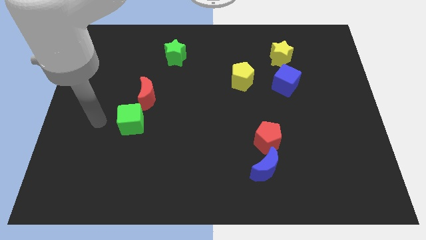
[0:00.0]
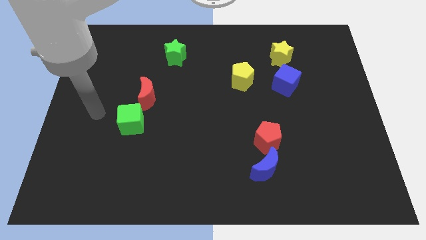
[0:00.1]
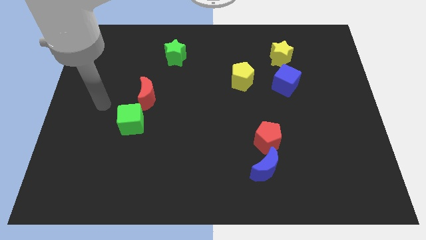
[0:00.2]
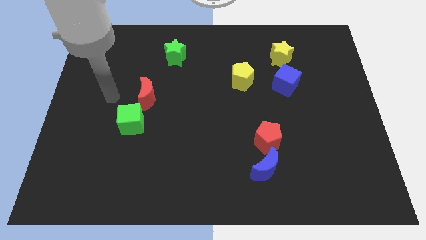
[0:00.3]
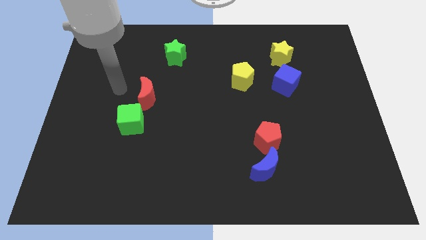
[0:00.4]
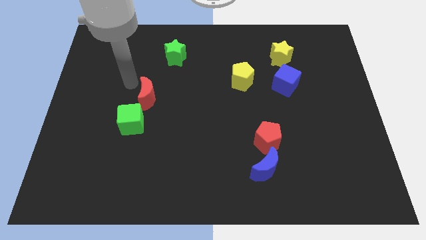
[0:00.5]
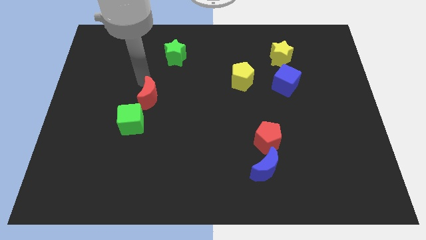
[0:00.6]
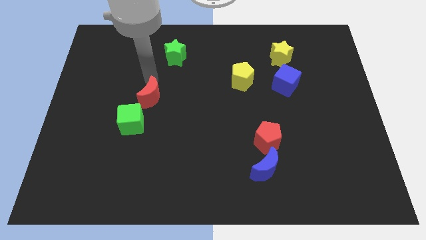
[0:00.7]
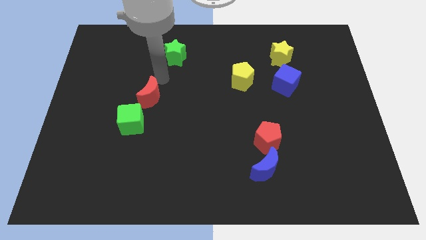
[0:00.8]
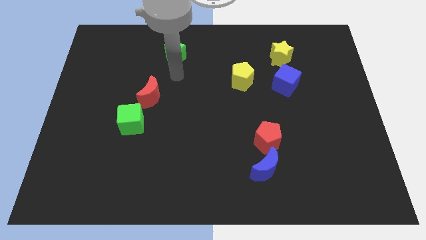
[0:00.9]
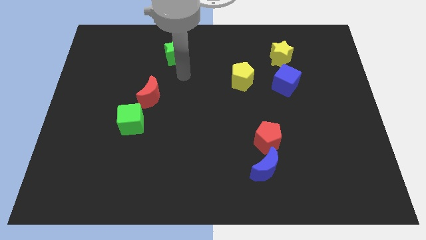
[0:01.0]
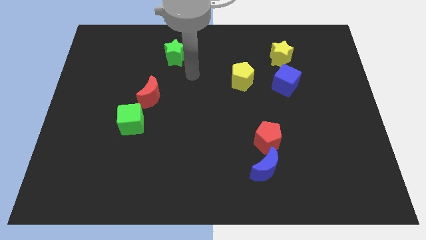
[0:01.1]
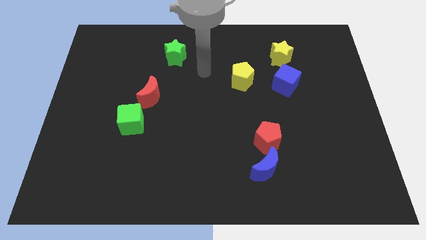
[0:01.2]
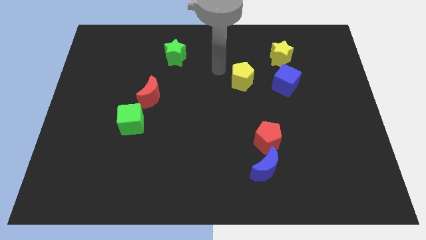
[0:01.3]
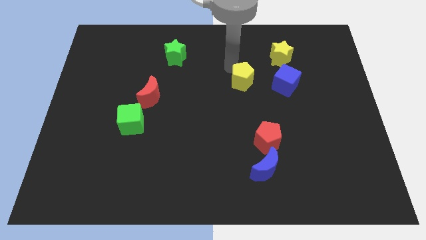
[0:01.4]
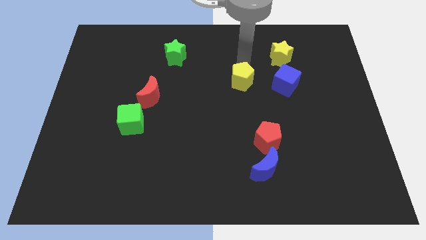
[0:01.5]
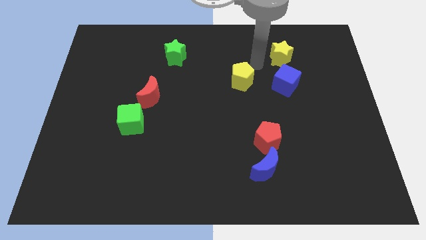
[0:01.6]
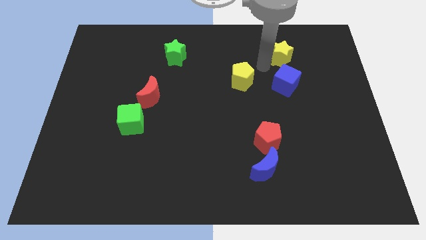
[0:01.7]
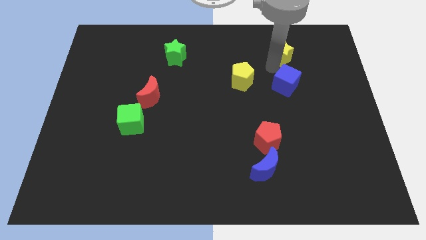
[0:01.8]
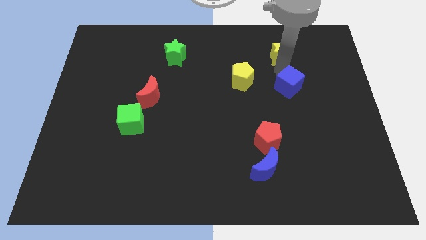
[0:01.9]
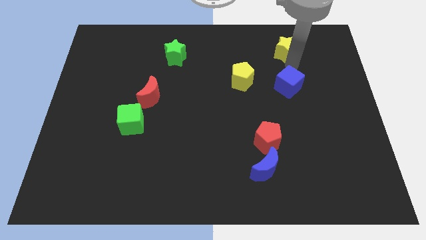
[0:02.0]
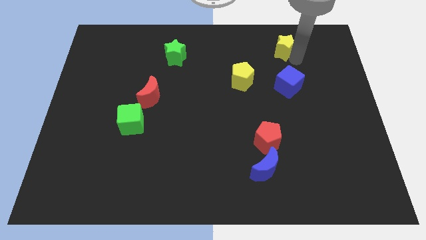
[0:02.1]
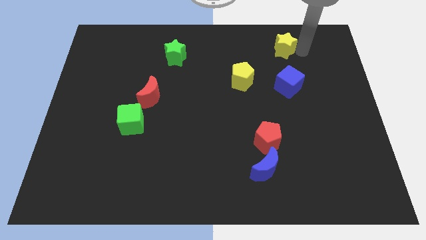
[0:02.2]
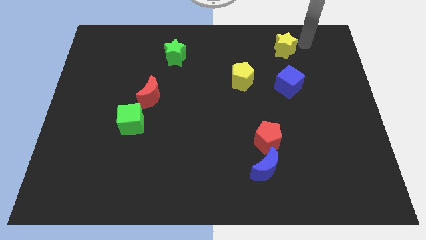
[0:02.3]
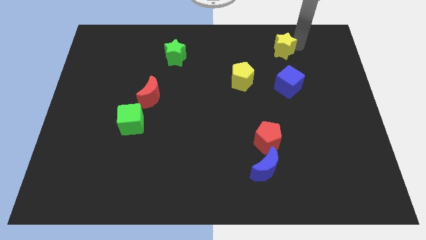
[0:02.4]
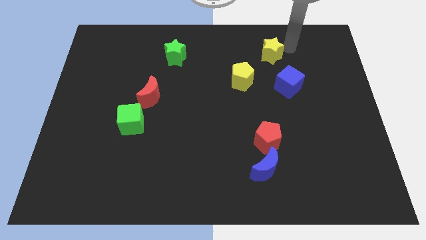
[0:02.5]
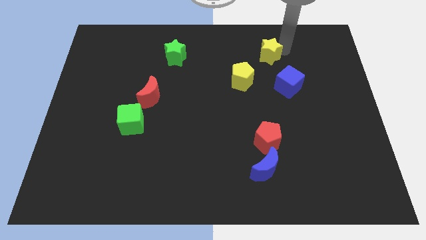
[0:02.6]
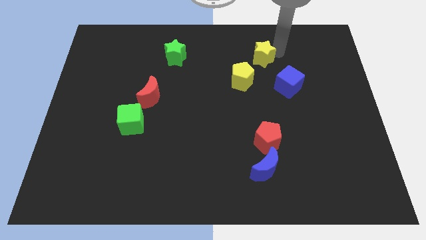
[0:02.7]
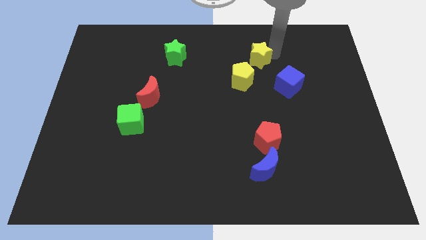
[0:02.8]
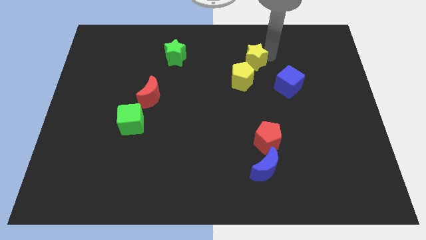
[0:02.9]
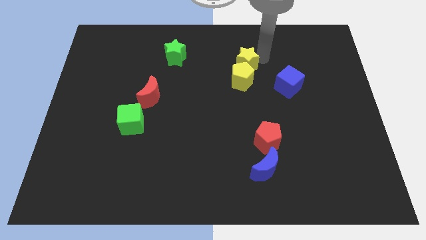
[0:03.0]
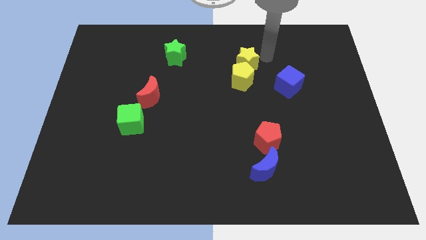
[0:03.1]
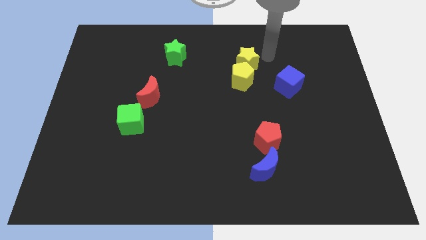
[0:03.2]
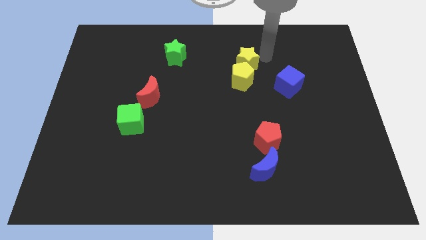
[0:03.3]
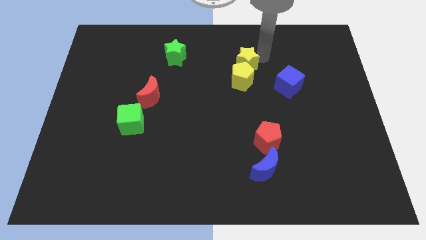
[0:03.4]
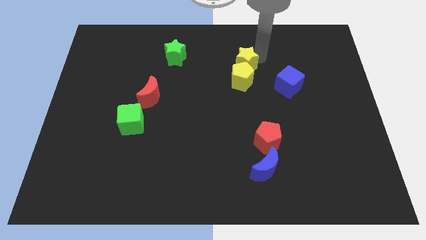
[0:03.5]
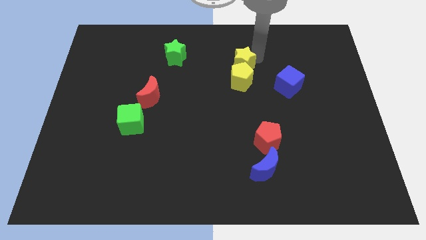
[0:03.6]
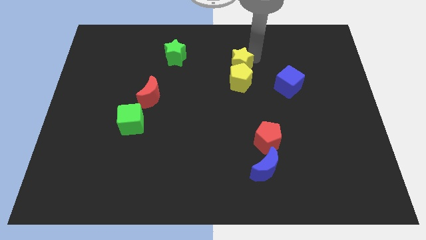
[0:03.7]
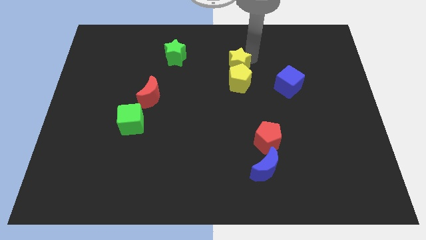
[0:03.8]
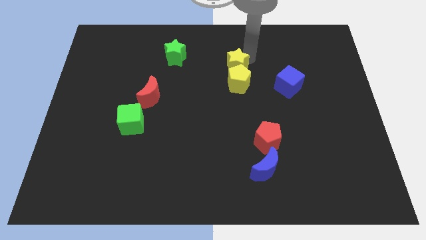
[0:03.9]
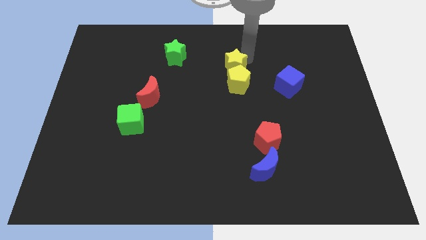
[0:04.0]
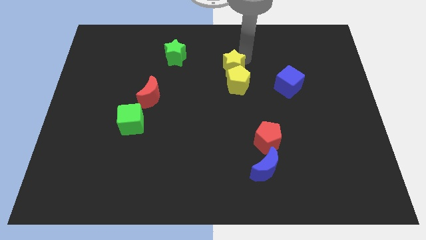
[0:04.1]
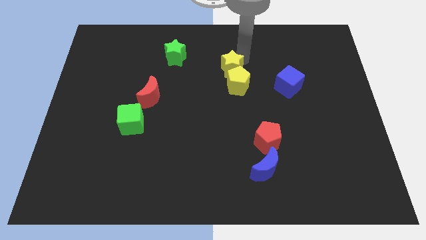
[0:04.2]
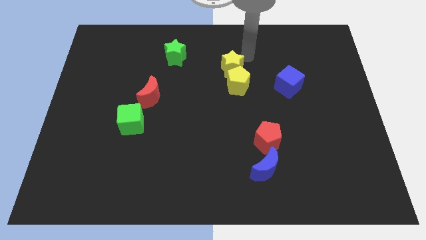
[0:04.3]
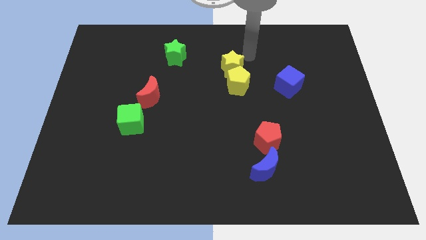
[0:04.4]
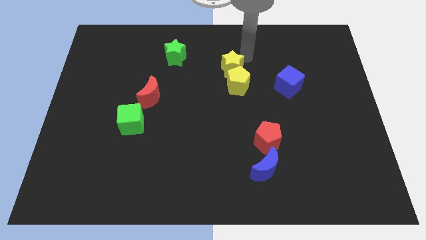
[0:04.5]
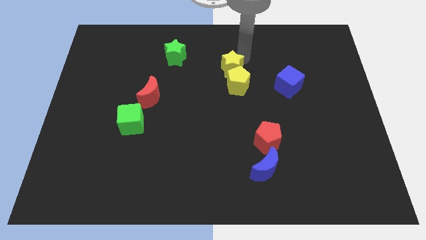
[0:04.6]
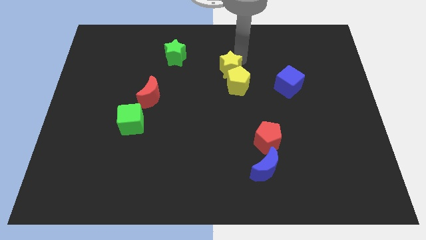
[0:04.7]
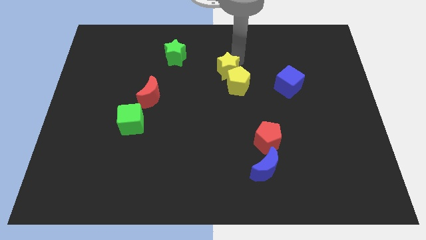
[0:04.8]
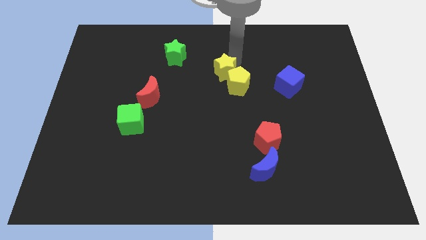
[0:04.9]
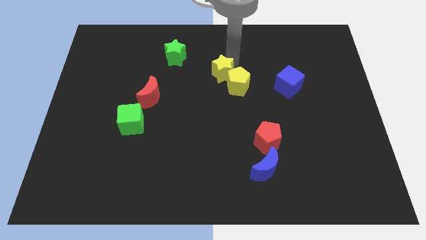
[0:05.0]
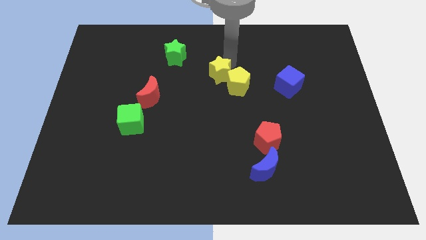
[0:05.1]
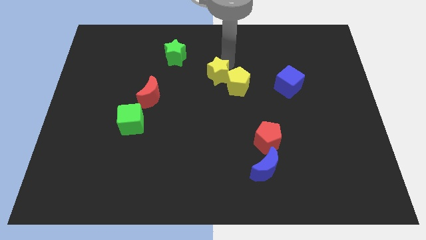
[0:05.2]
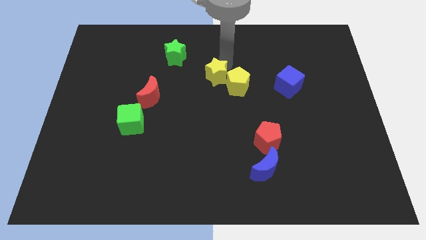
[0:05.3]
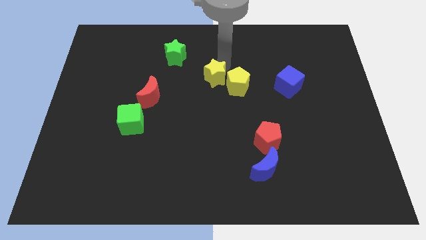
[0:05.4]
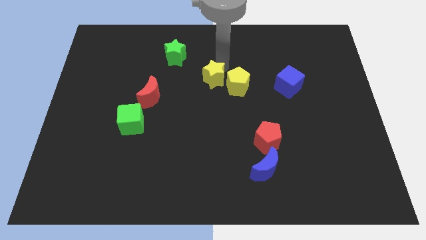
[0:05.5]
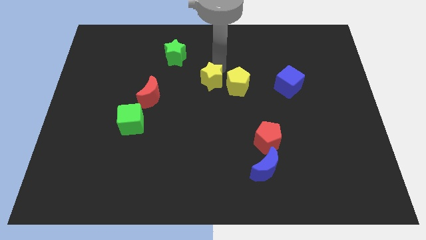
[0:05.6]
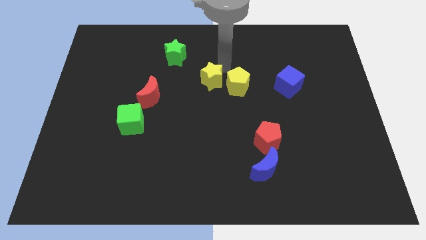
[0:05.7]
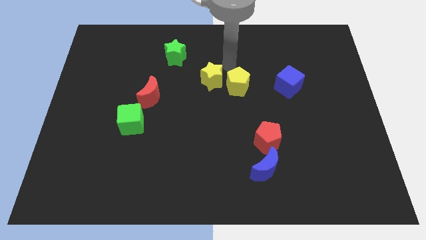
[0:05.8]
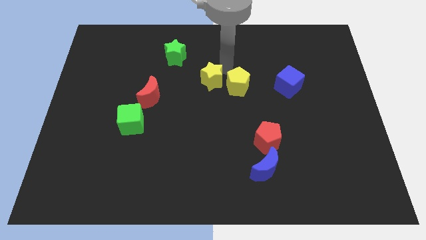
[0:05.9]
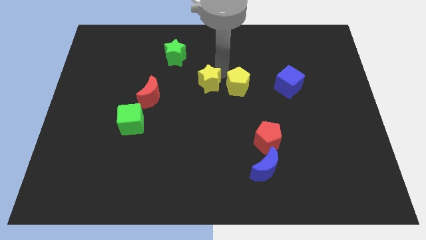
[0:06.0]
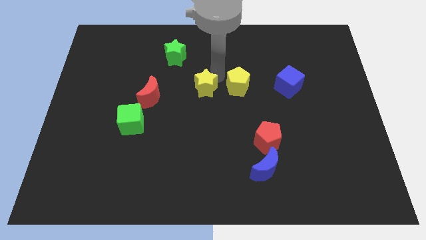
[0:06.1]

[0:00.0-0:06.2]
put the yellow star to the right side of the red moon

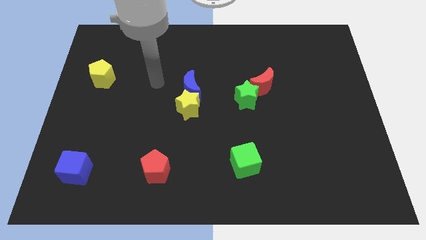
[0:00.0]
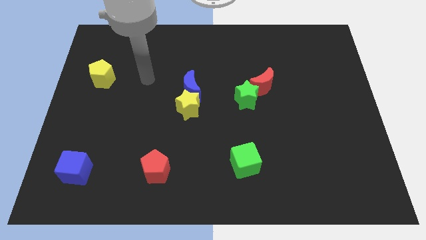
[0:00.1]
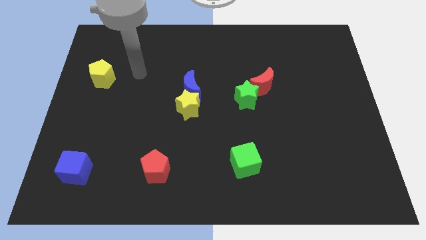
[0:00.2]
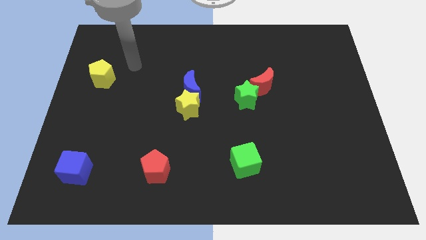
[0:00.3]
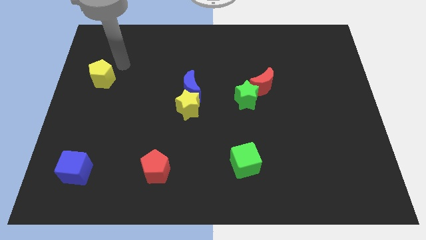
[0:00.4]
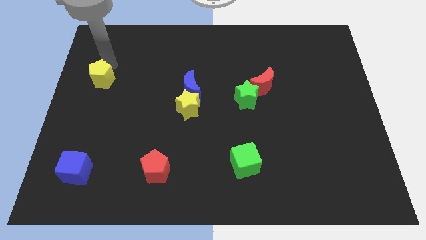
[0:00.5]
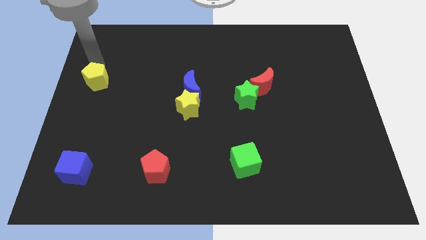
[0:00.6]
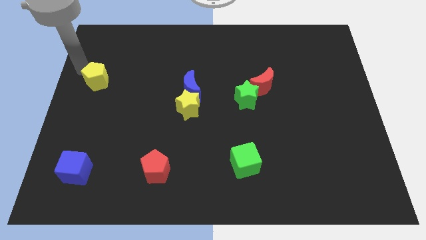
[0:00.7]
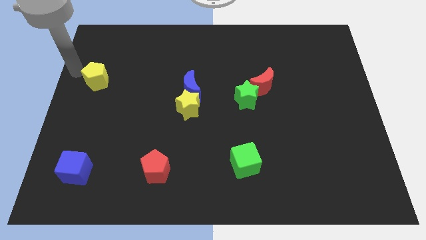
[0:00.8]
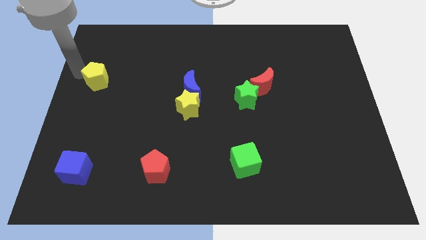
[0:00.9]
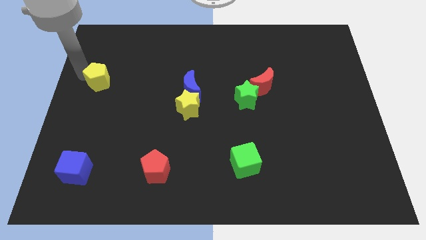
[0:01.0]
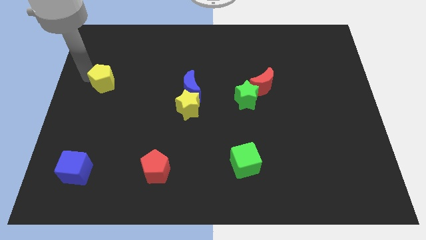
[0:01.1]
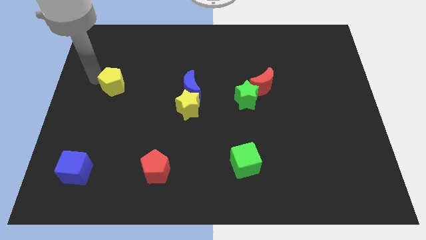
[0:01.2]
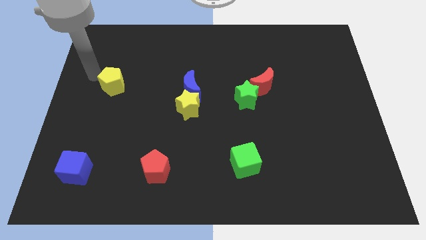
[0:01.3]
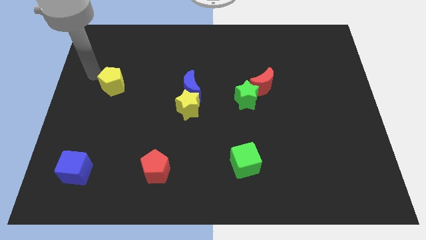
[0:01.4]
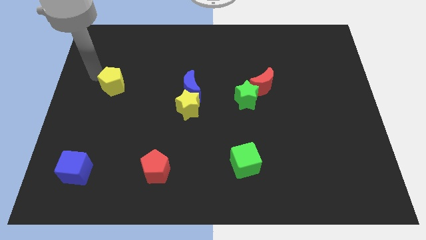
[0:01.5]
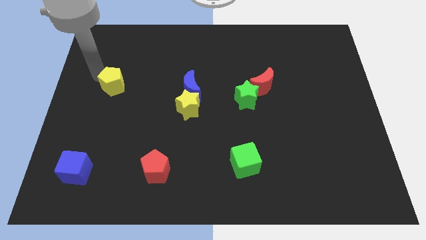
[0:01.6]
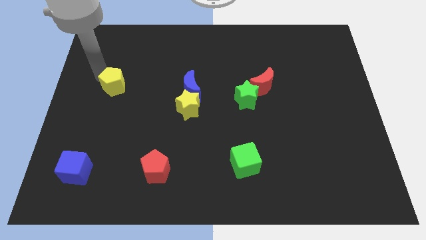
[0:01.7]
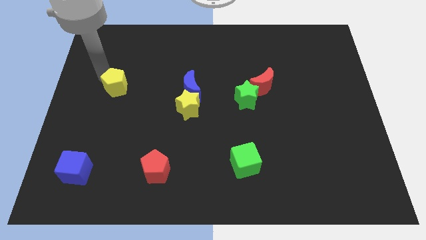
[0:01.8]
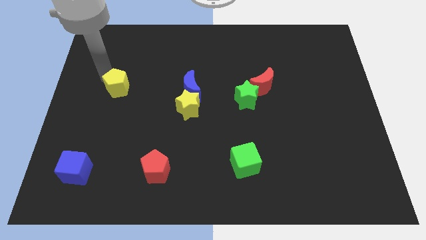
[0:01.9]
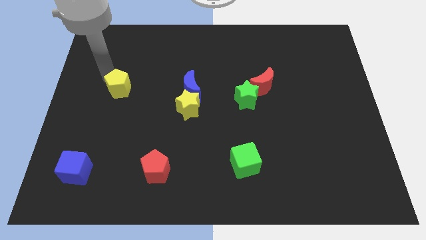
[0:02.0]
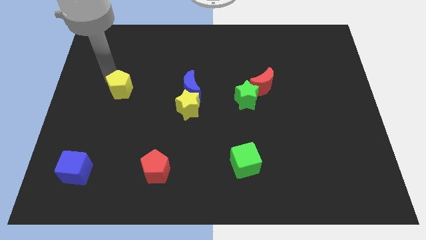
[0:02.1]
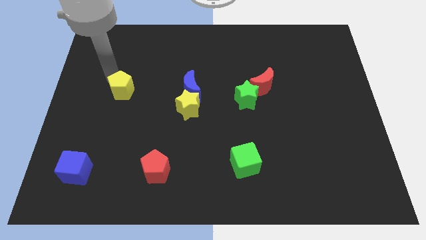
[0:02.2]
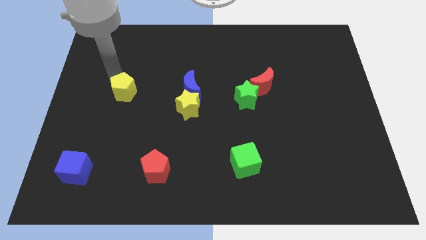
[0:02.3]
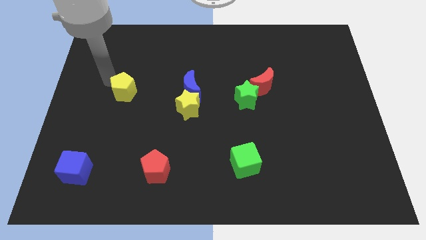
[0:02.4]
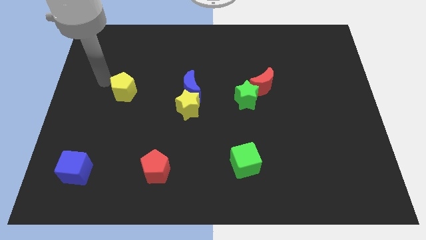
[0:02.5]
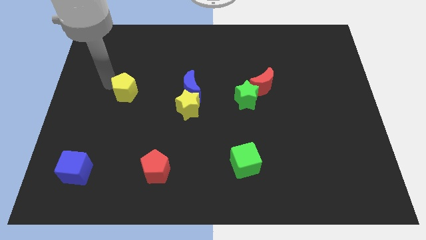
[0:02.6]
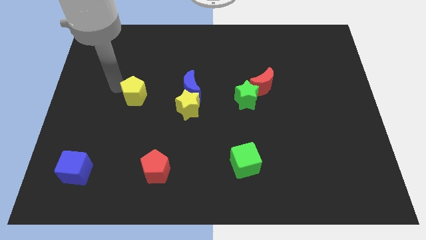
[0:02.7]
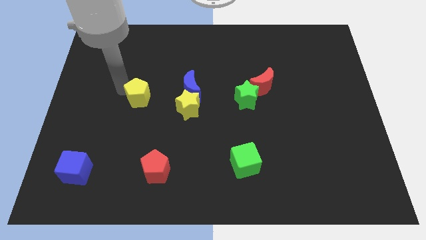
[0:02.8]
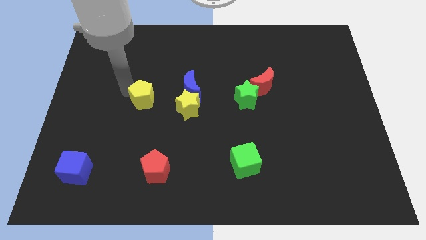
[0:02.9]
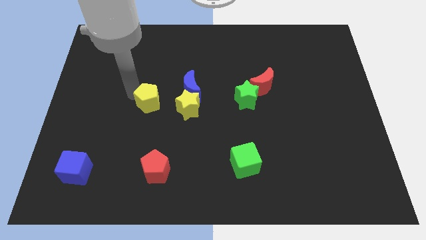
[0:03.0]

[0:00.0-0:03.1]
move the yellow pentagon to the bottom left side of the blue moon
